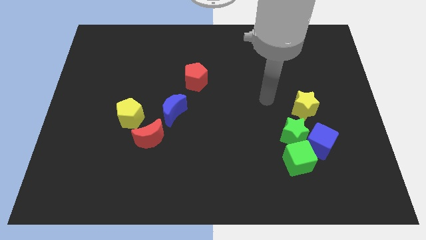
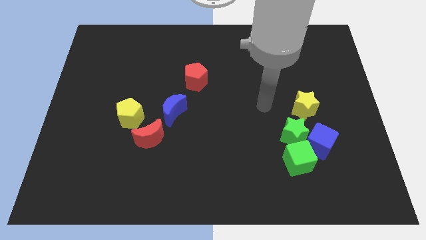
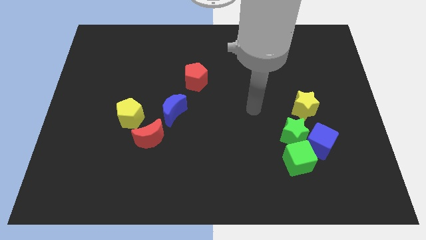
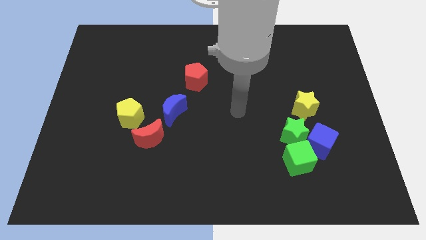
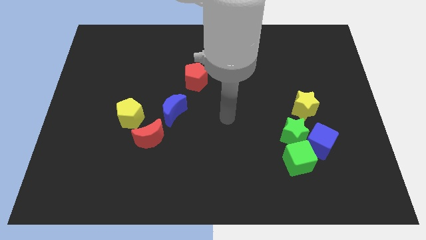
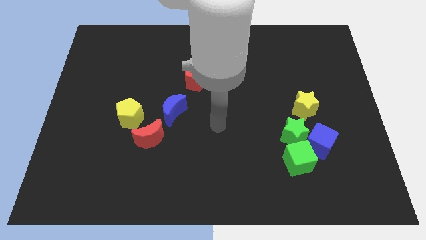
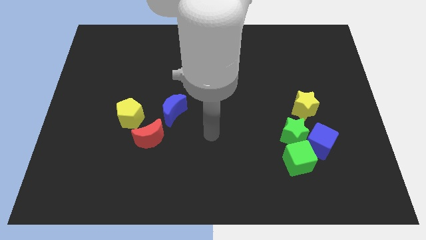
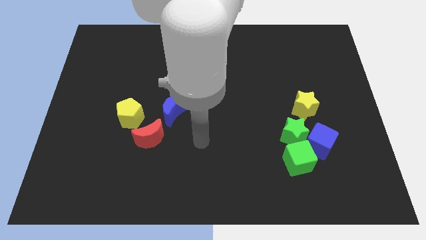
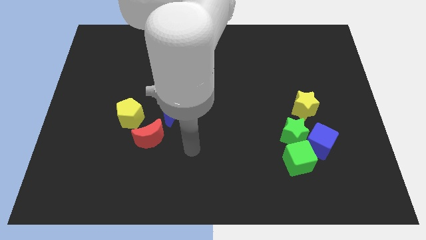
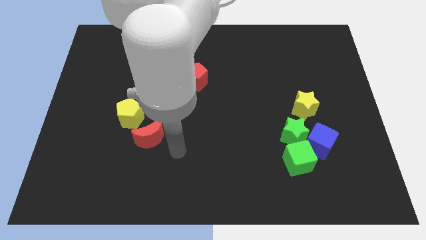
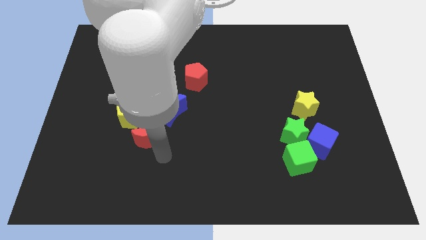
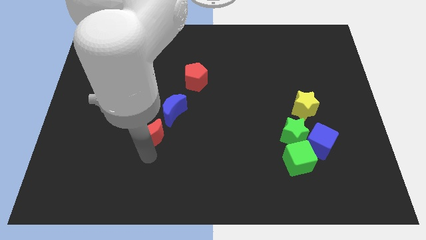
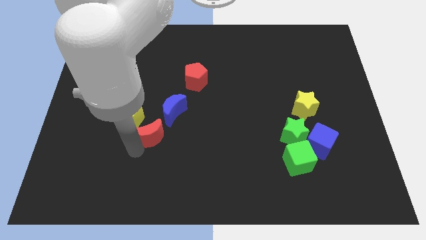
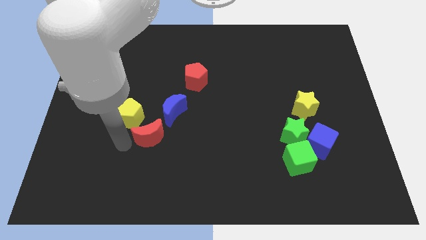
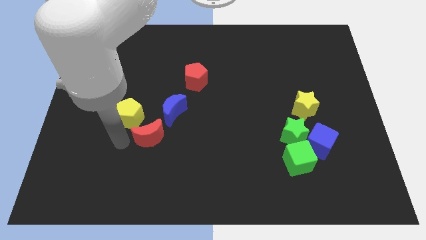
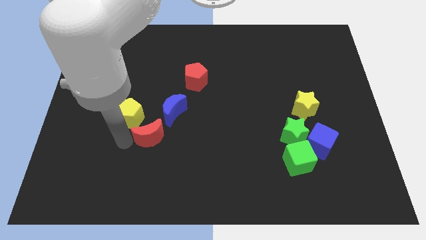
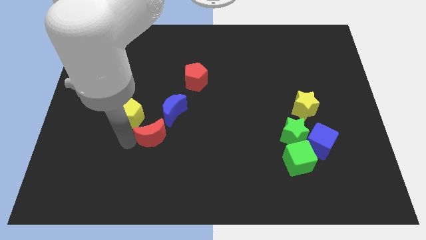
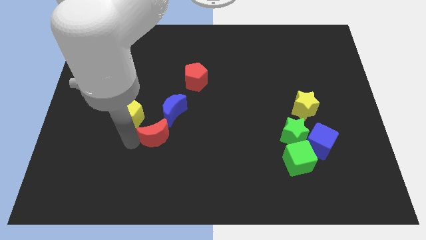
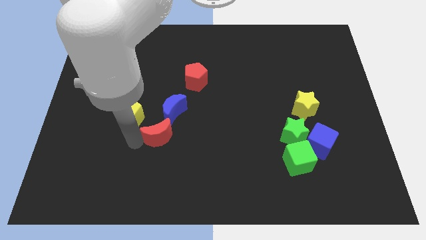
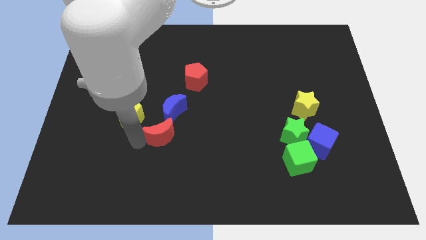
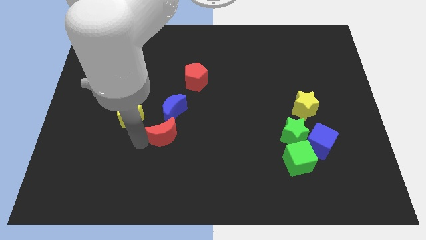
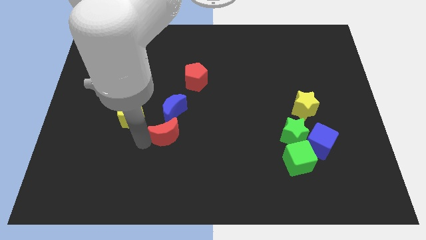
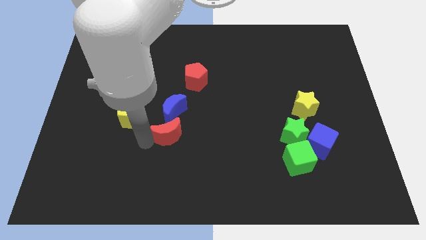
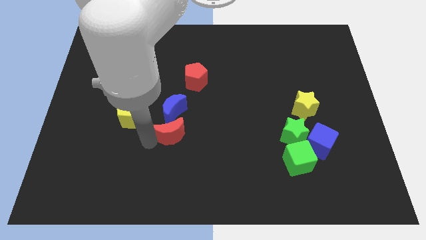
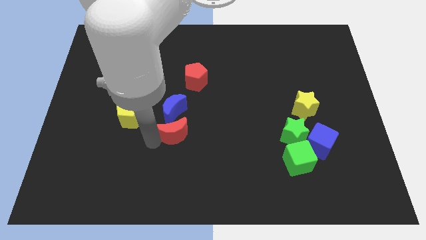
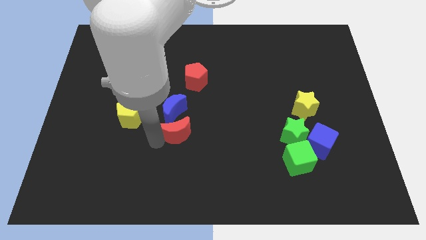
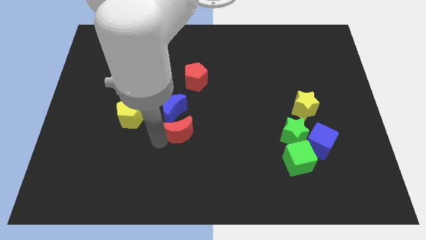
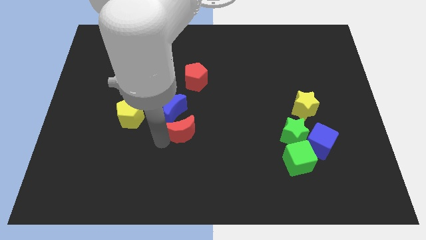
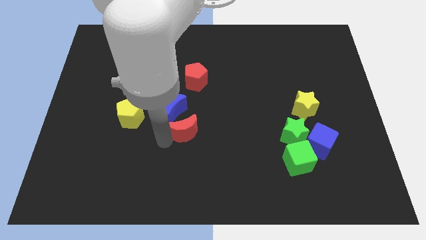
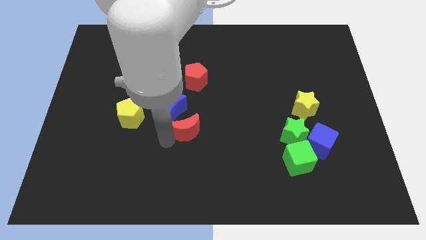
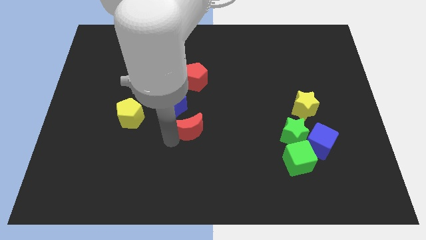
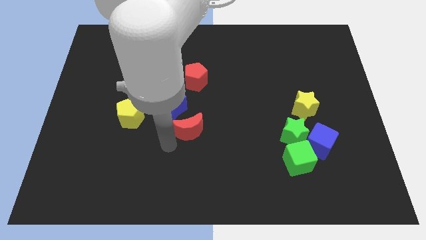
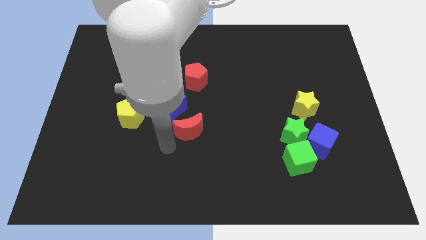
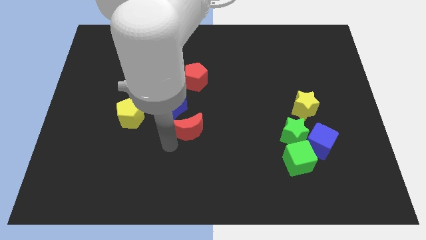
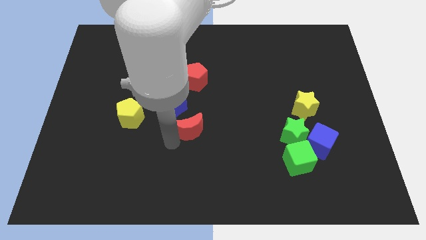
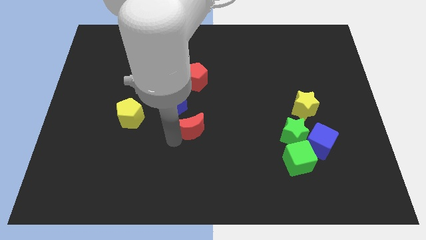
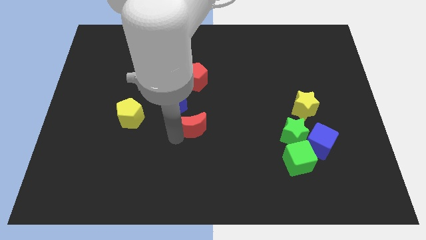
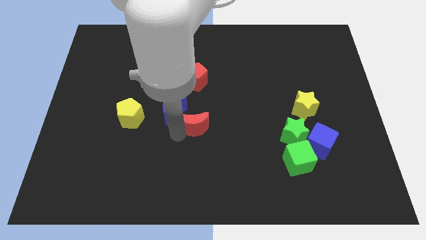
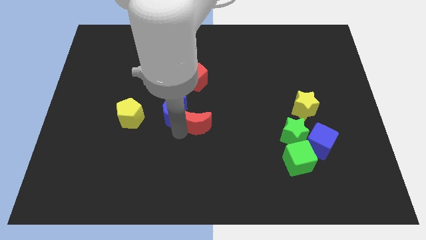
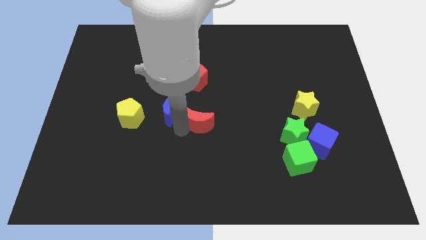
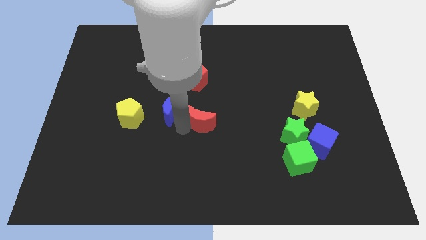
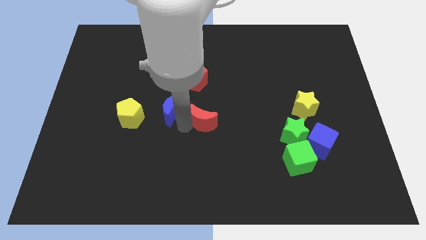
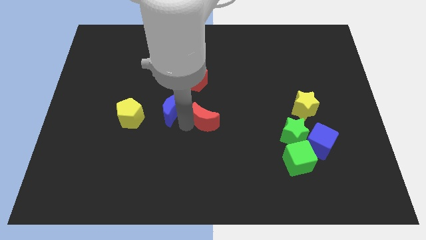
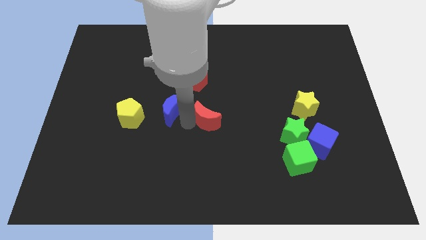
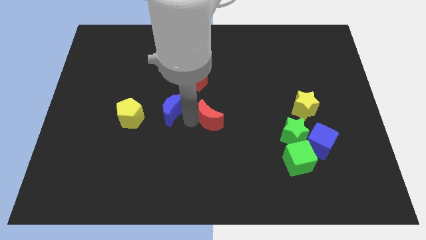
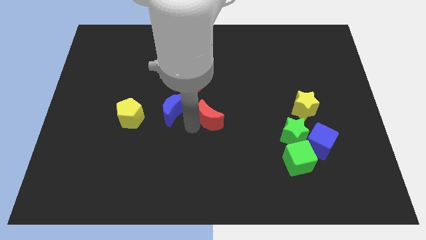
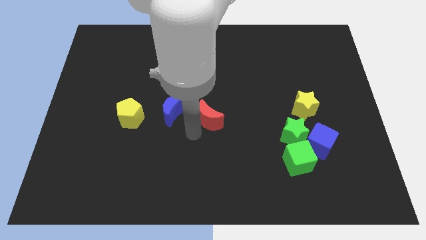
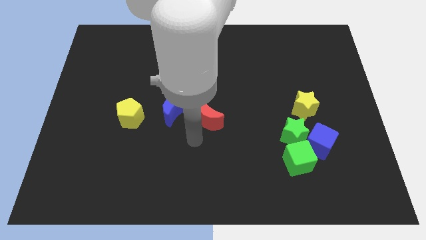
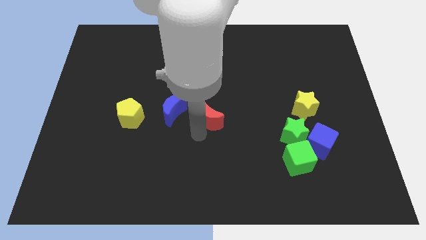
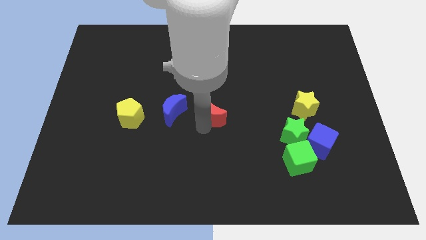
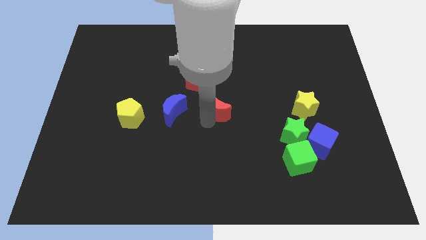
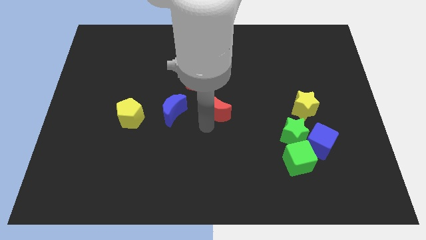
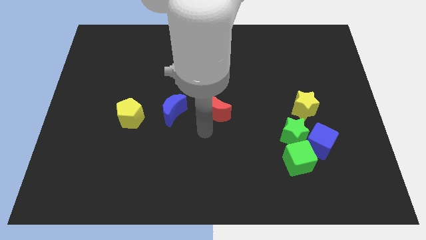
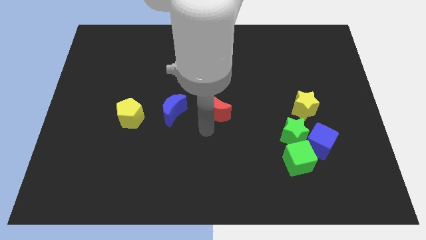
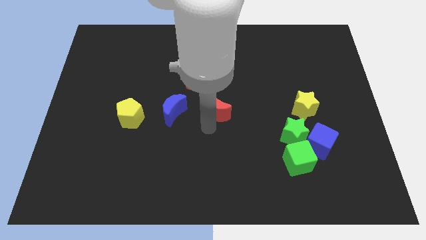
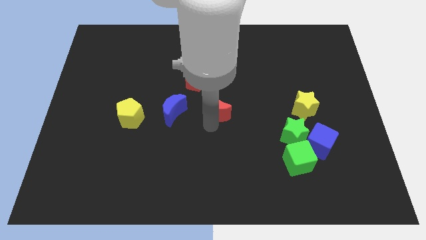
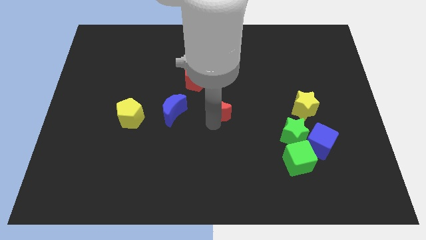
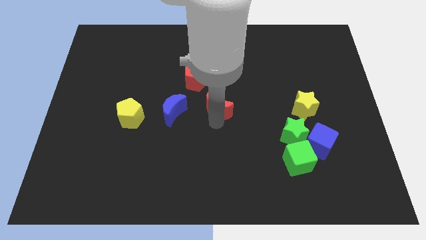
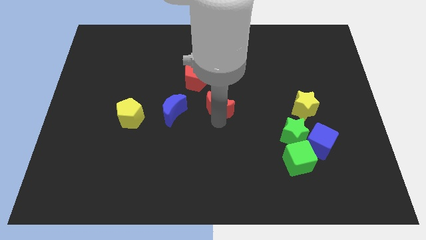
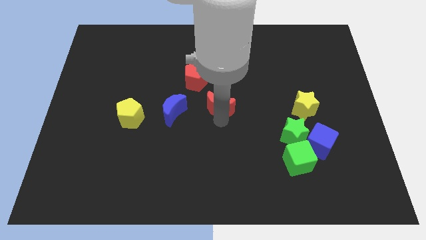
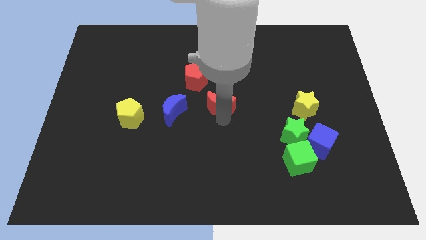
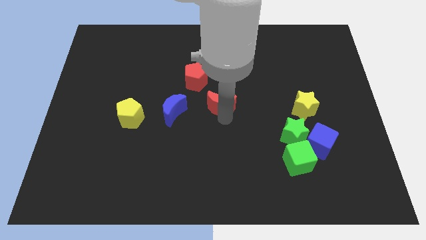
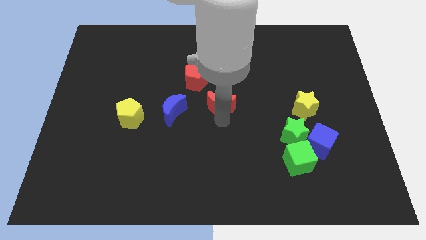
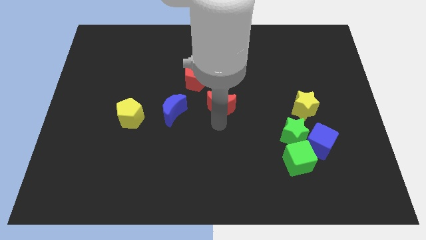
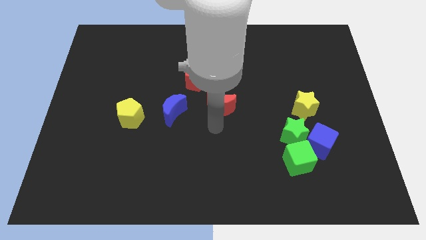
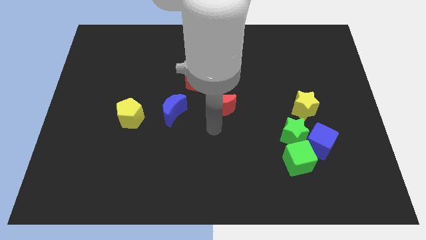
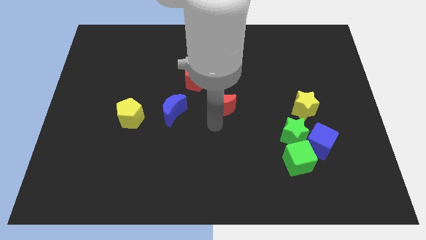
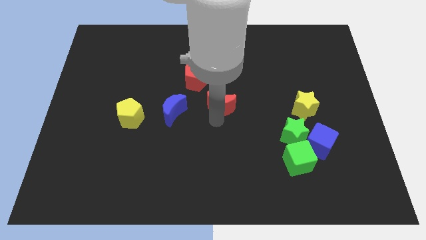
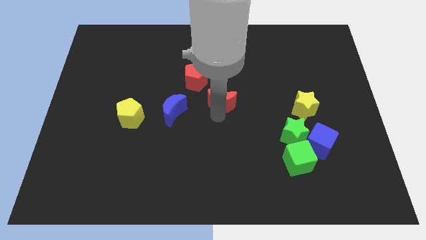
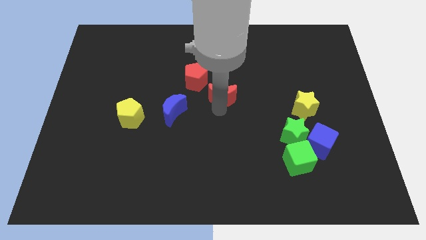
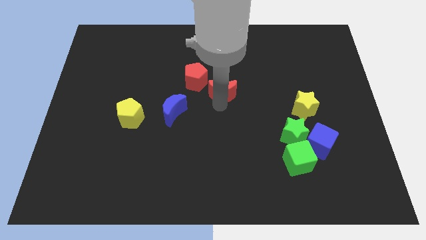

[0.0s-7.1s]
move the red moon diagonally upwards and to the right

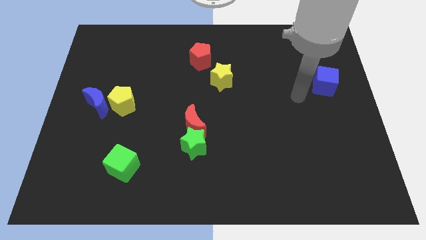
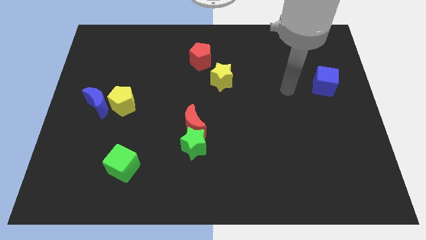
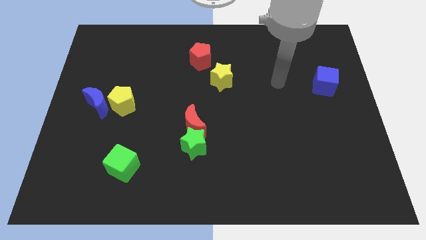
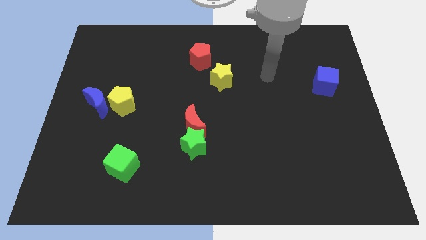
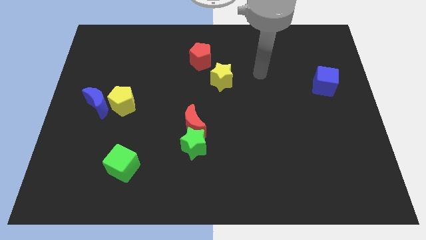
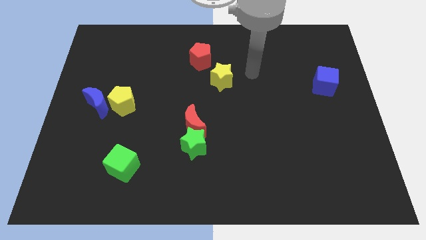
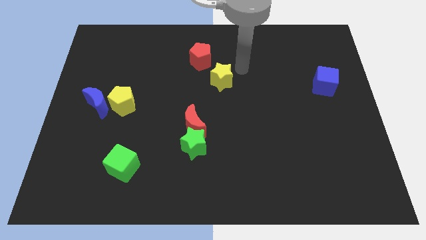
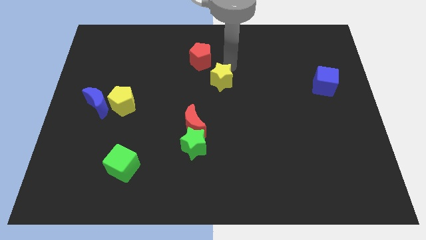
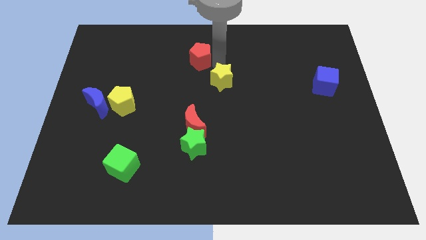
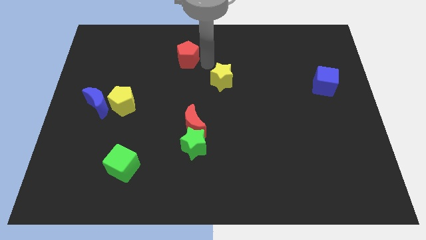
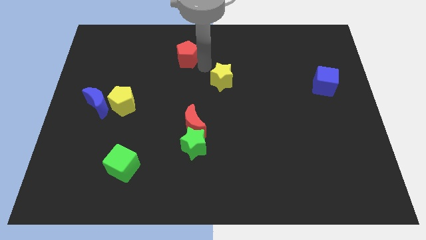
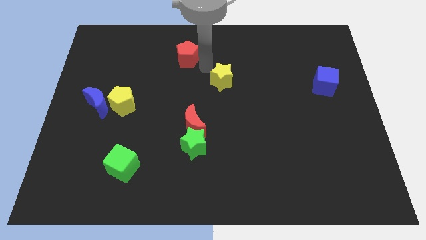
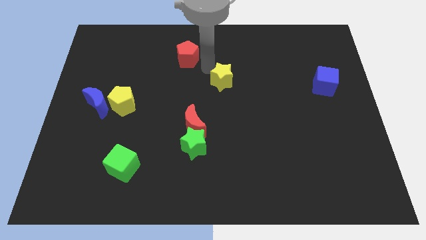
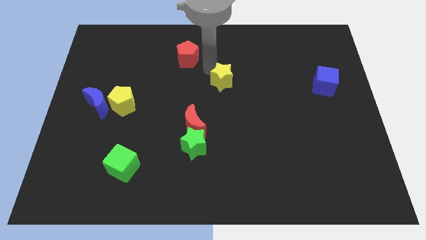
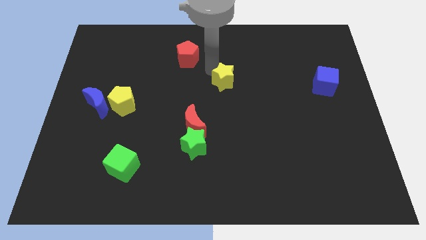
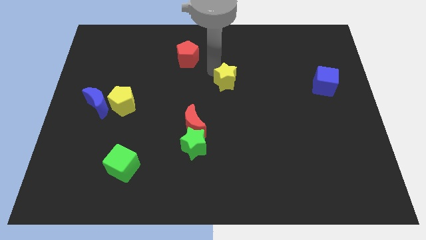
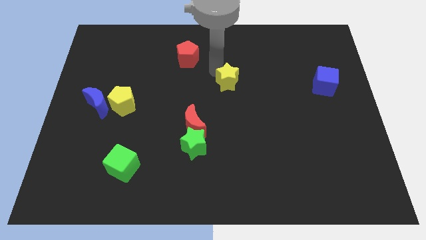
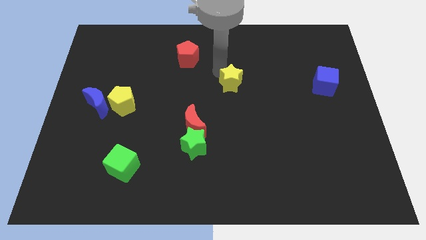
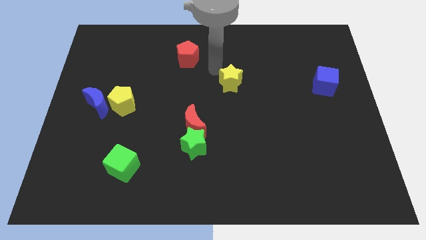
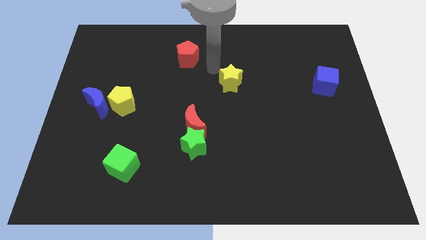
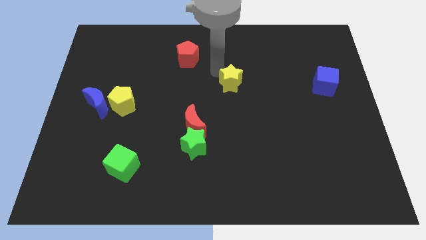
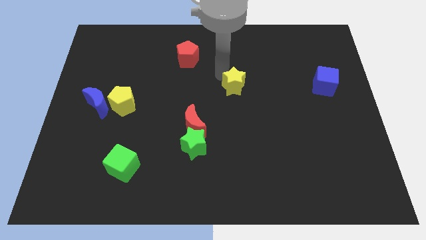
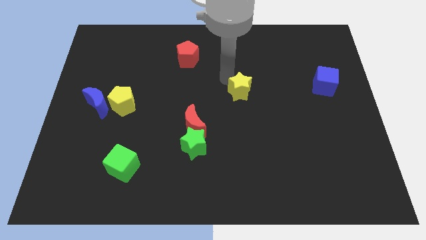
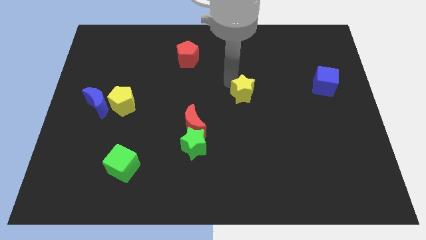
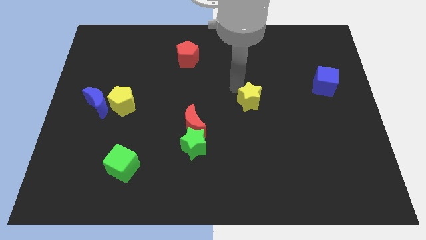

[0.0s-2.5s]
slide the yellow star slightly down and to the right diagonally
